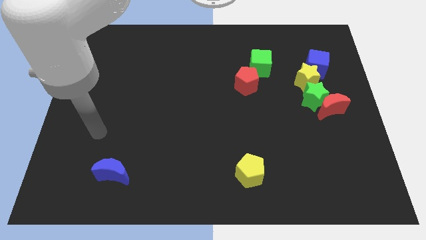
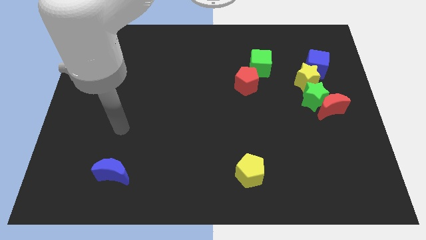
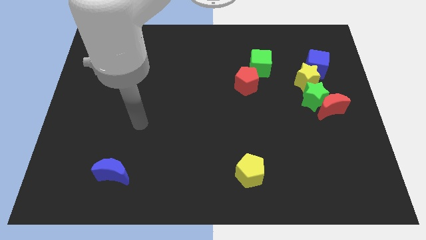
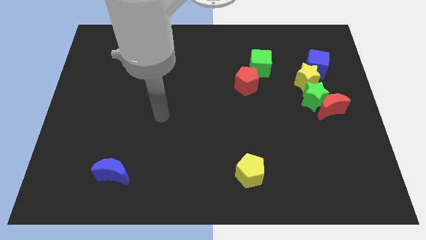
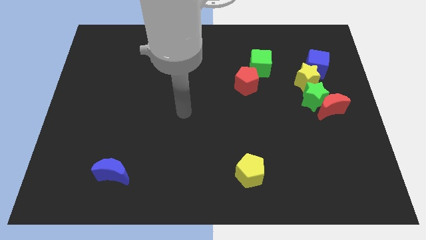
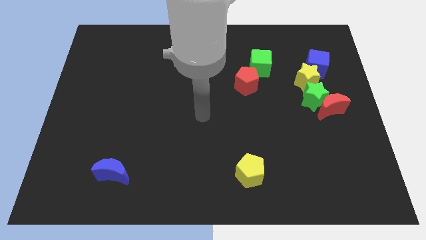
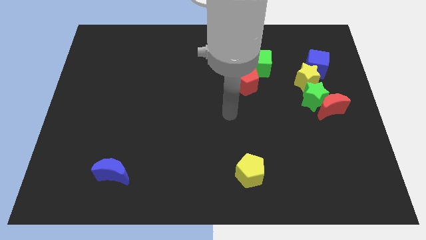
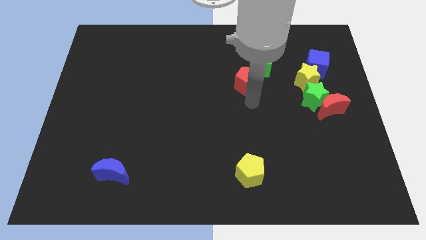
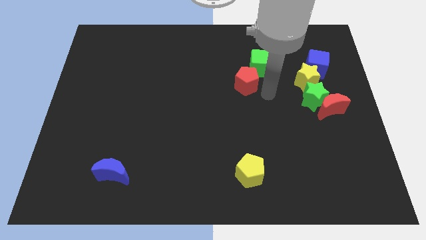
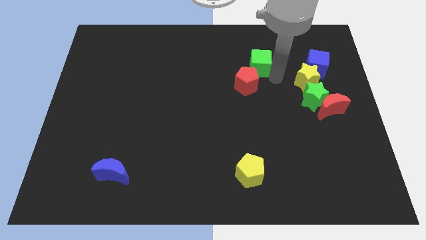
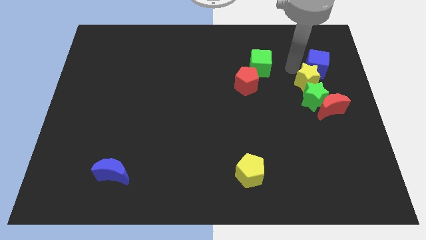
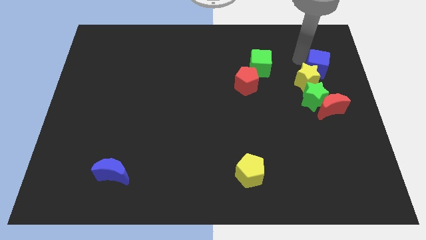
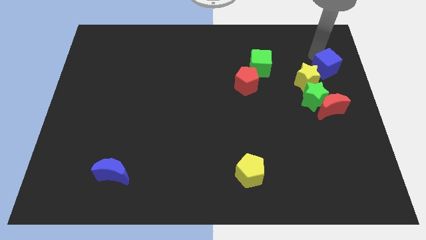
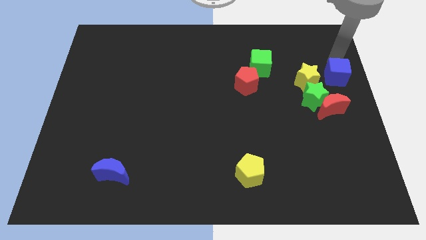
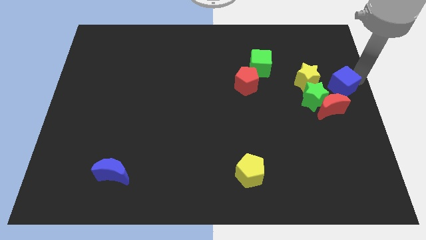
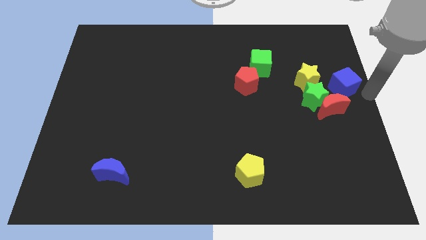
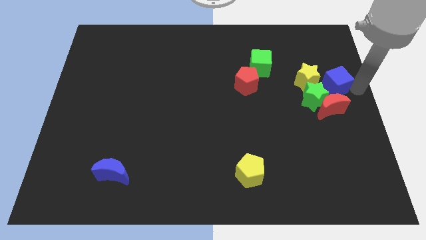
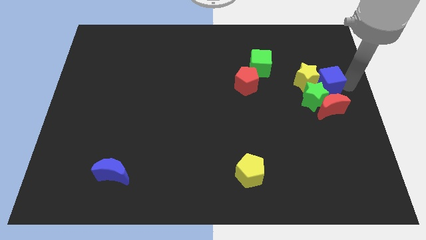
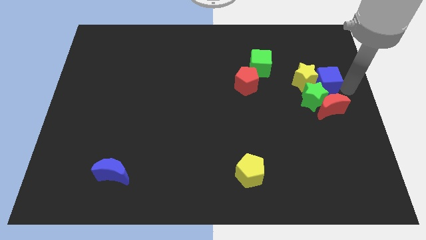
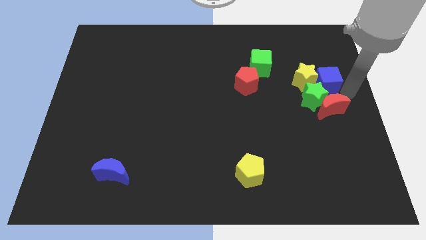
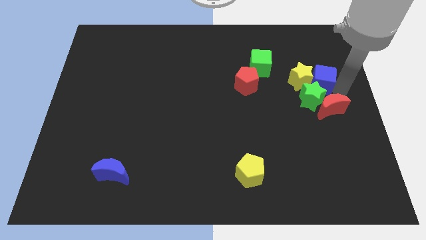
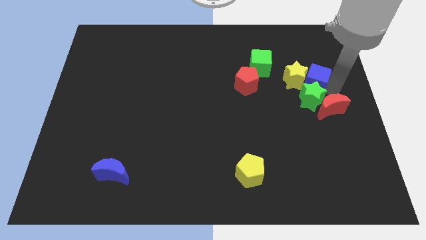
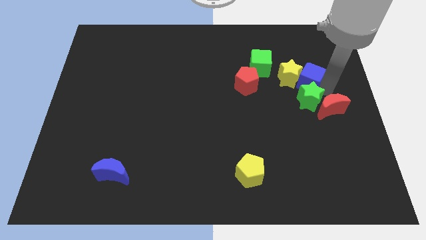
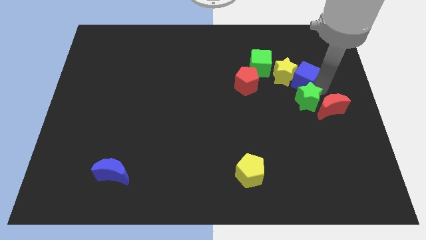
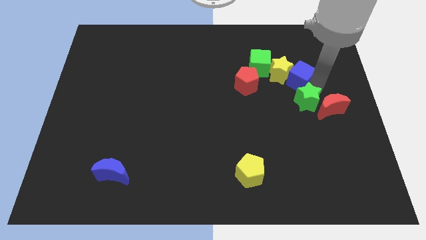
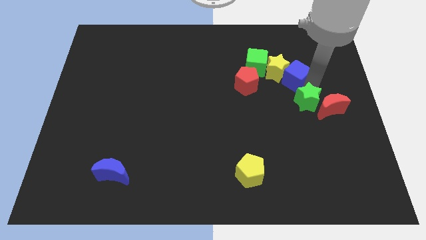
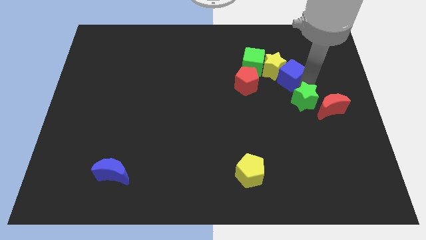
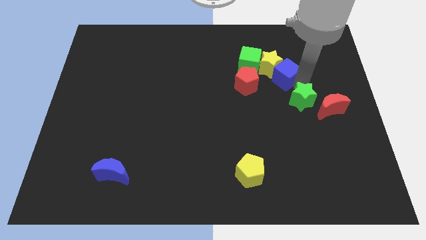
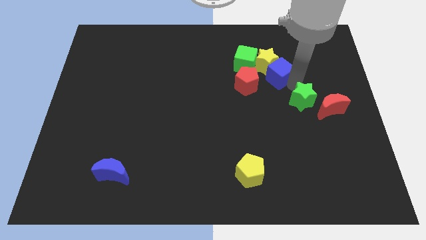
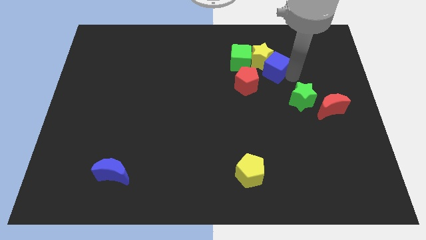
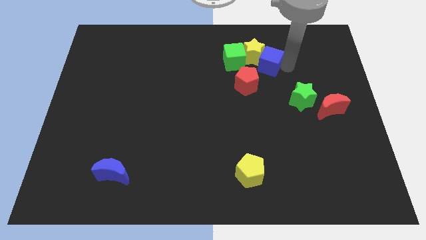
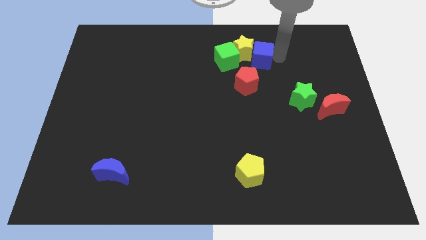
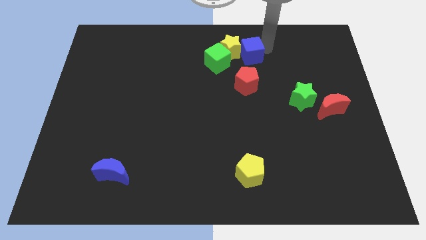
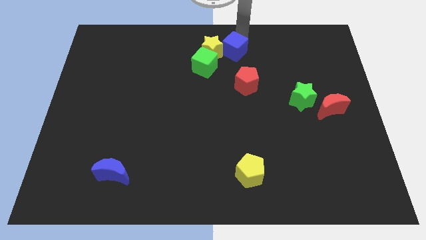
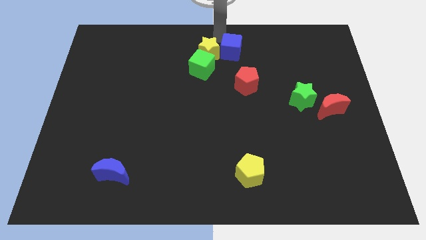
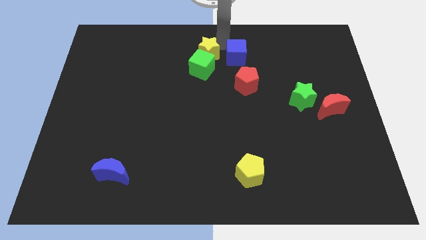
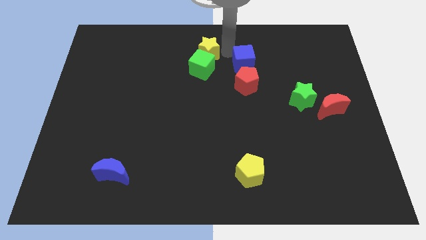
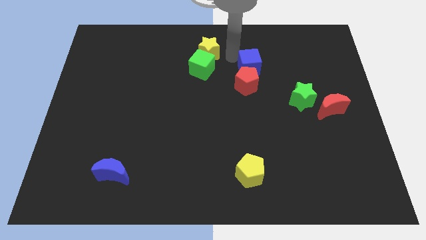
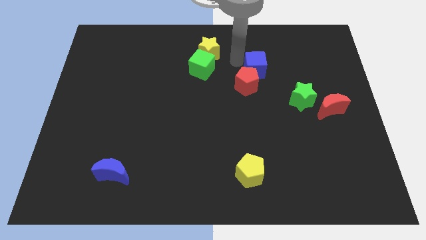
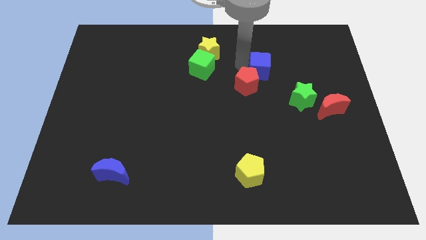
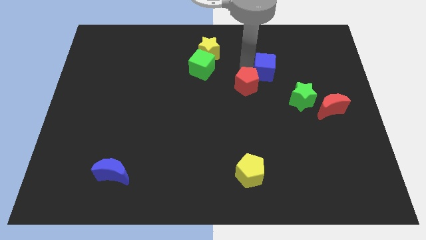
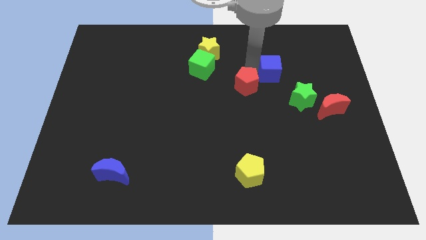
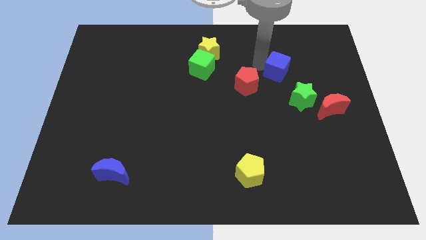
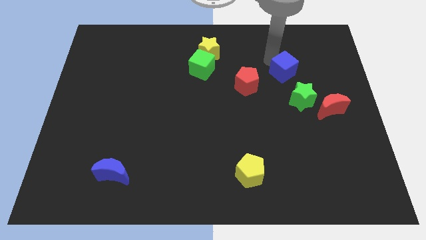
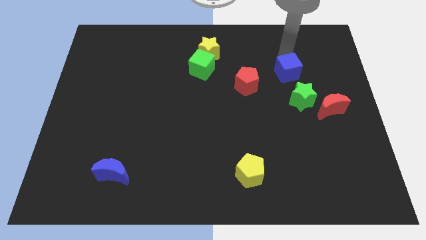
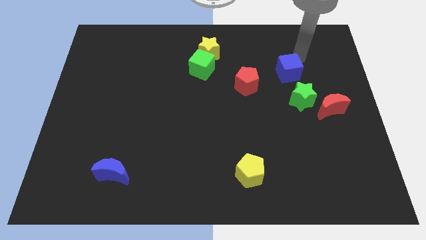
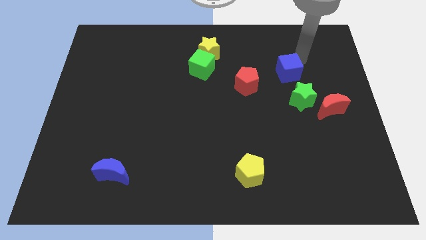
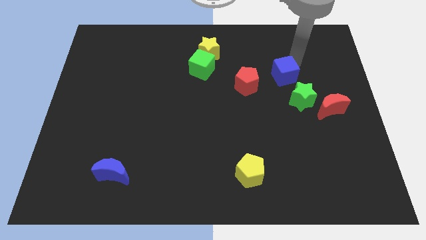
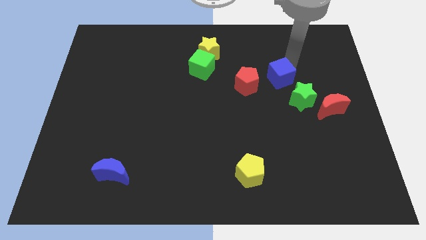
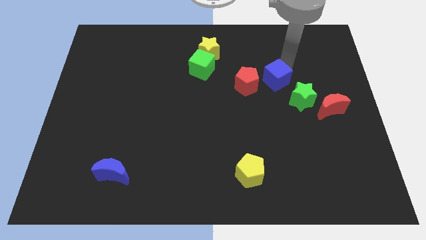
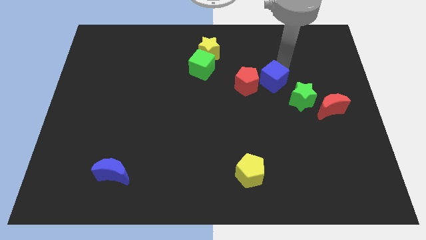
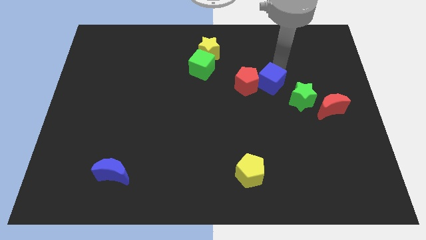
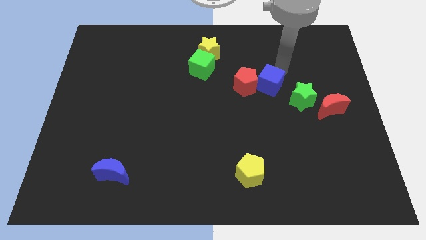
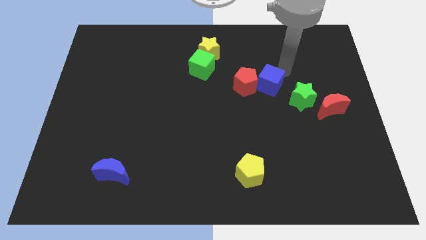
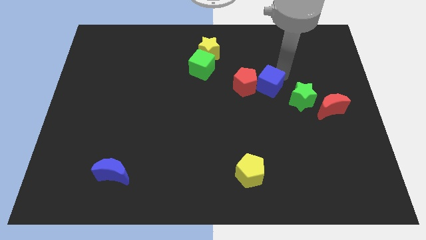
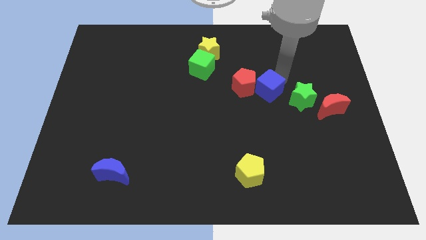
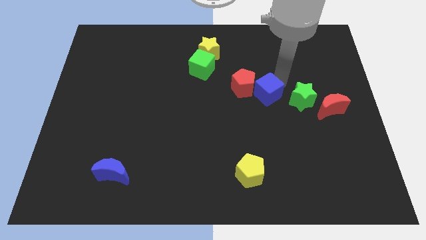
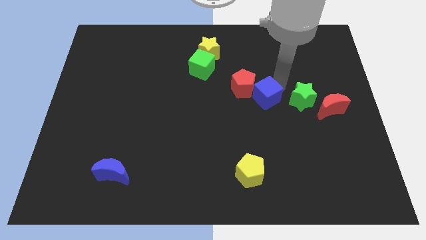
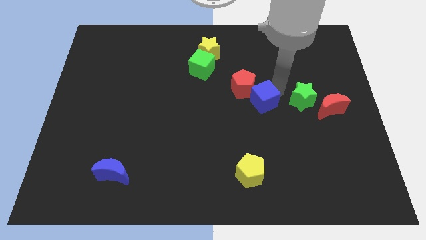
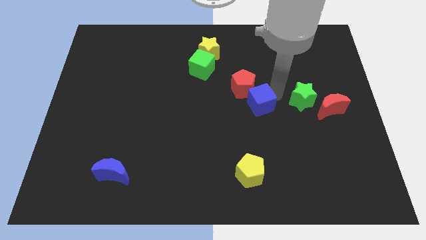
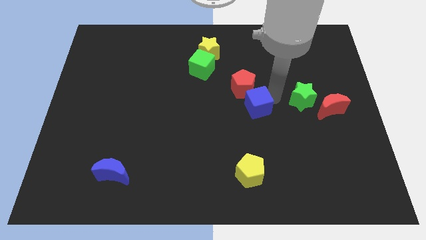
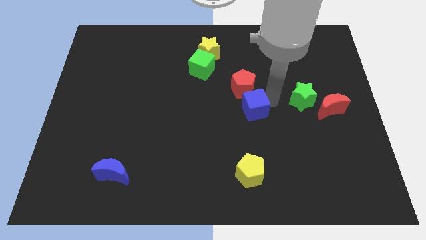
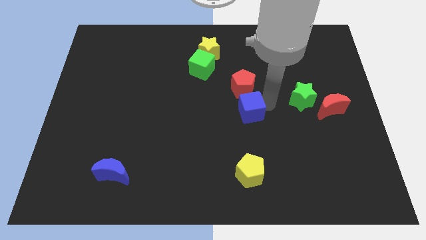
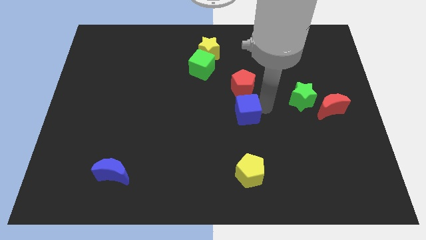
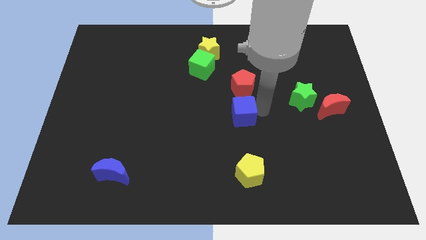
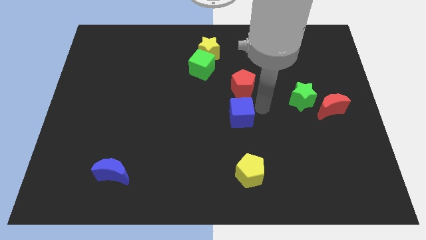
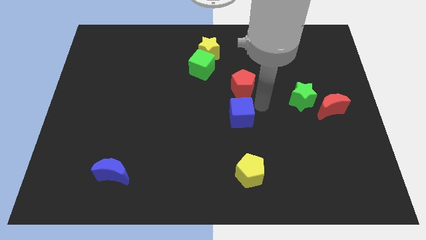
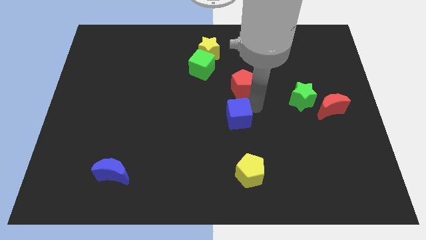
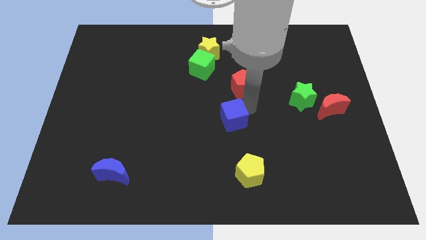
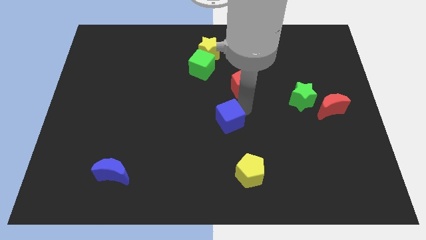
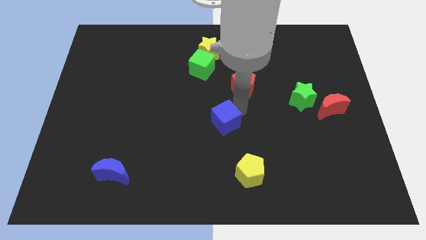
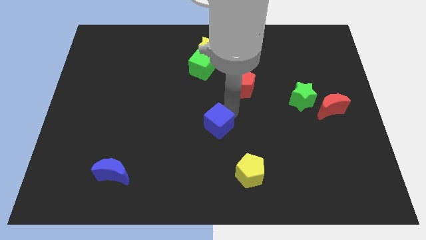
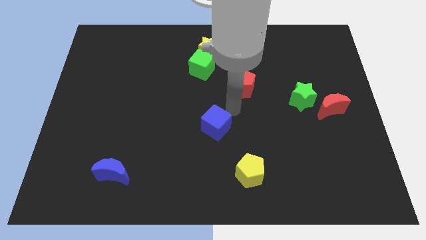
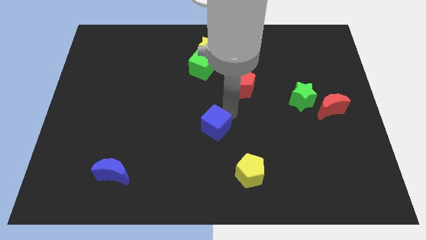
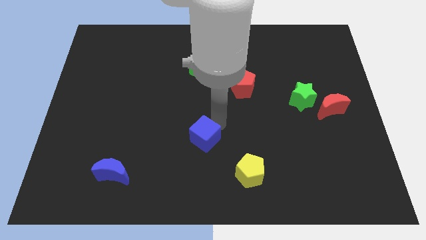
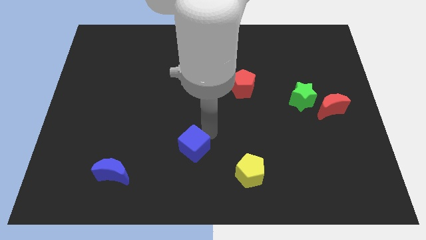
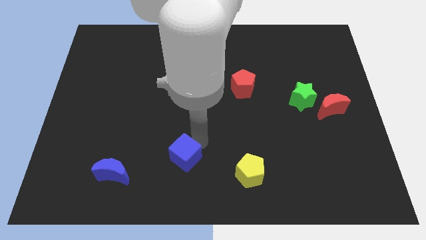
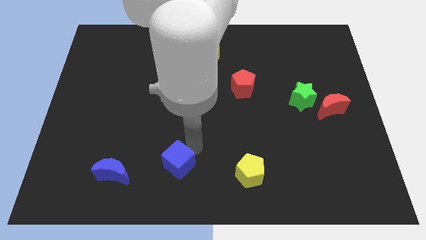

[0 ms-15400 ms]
move the blue cube just right of the blue moon
